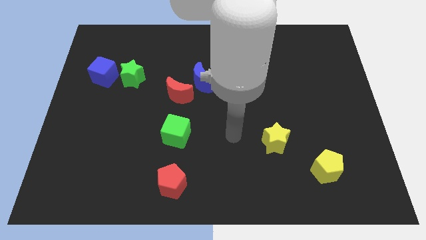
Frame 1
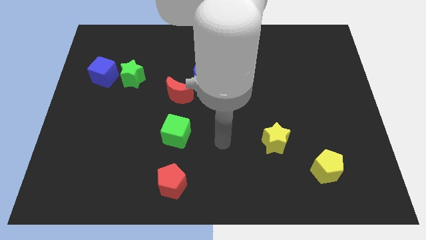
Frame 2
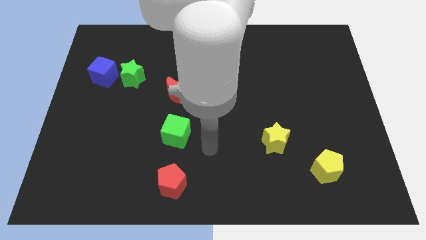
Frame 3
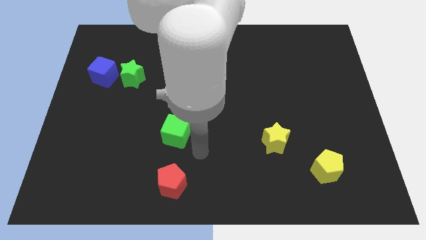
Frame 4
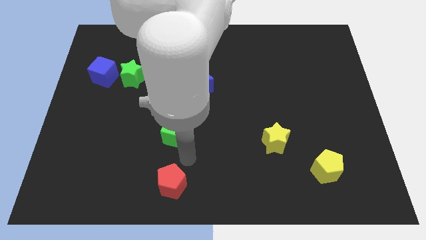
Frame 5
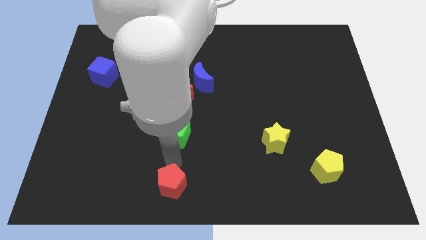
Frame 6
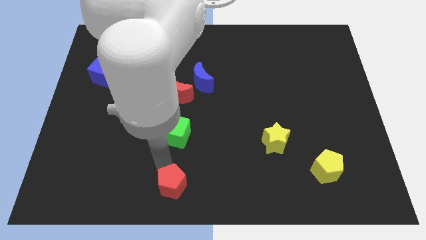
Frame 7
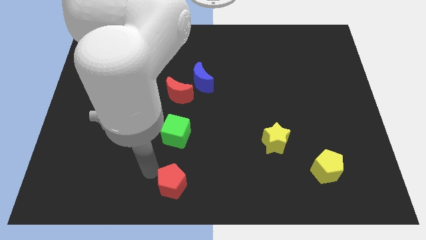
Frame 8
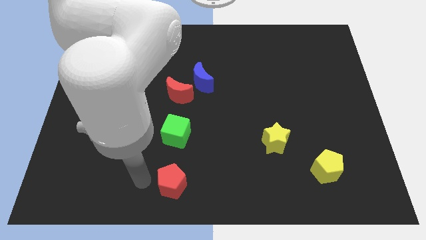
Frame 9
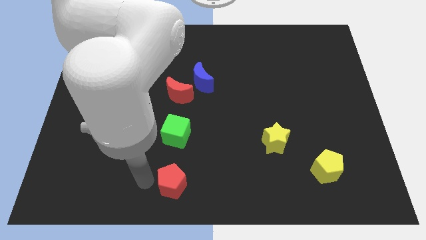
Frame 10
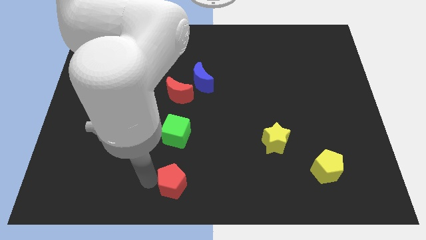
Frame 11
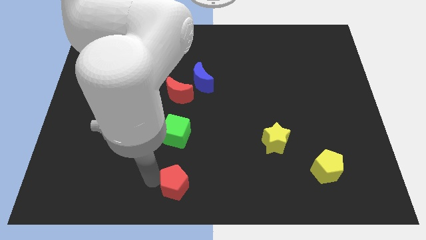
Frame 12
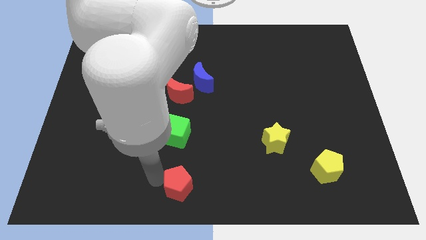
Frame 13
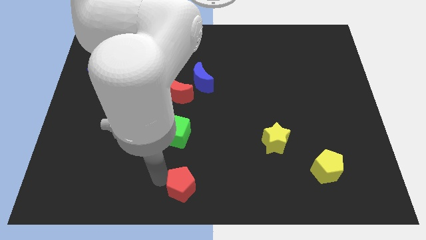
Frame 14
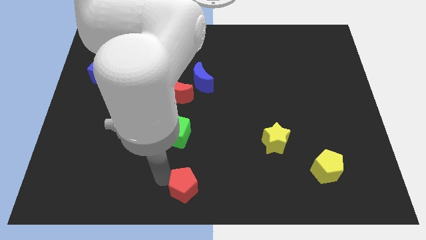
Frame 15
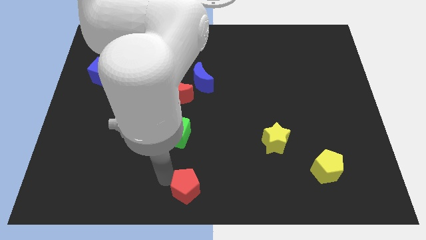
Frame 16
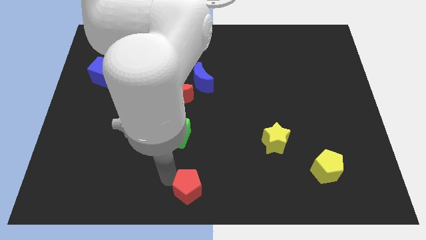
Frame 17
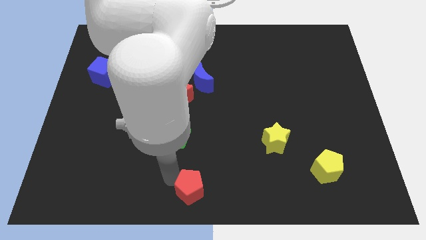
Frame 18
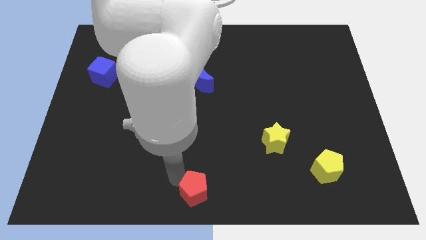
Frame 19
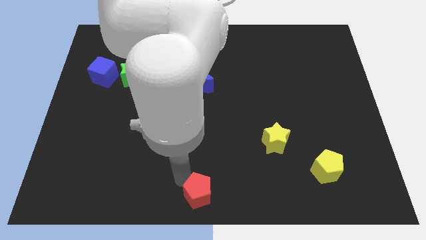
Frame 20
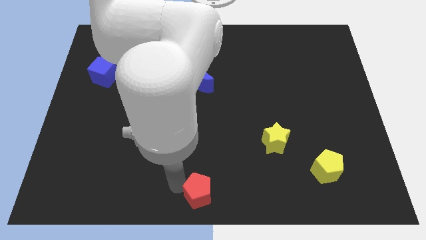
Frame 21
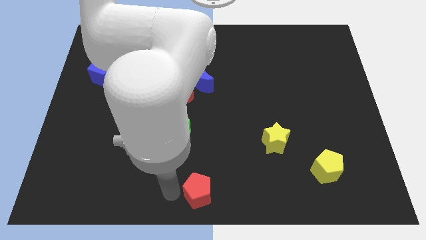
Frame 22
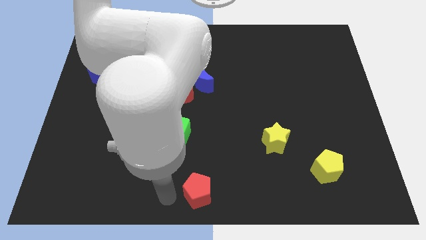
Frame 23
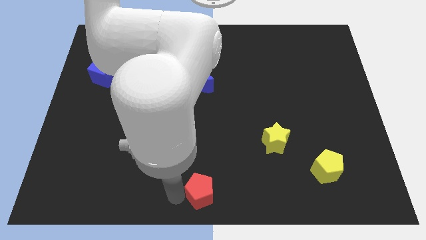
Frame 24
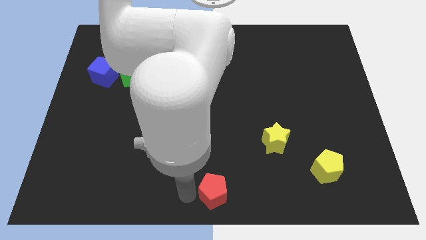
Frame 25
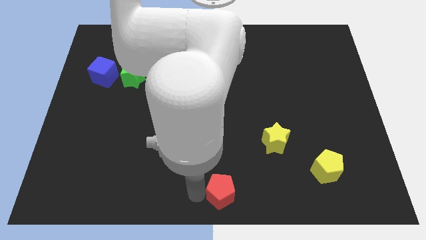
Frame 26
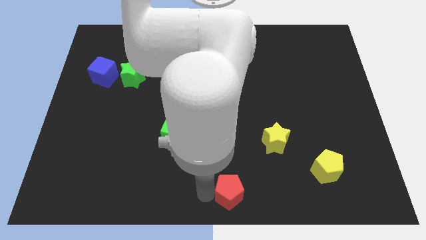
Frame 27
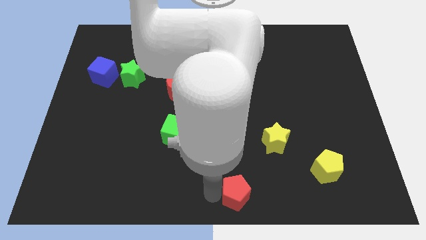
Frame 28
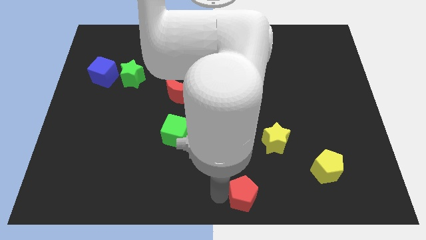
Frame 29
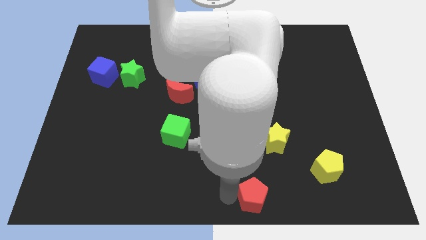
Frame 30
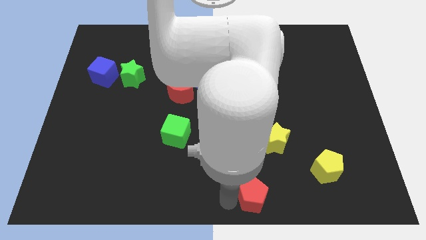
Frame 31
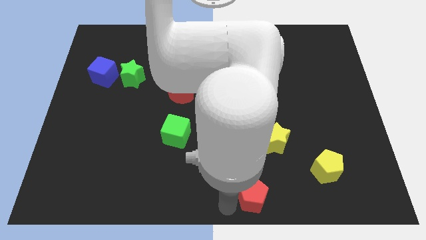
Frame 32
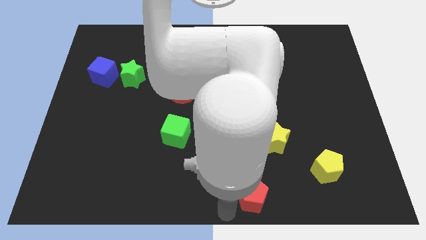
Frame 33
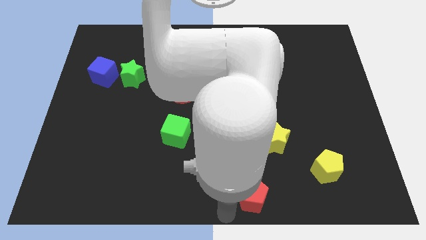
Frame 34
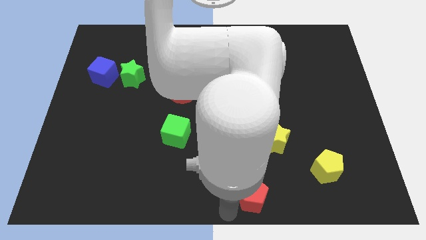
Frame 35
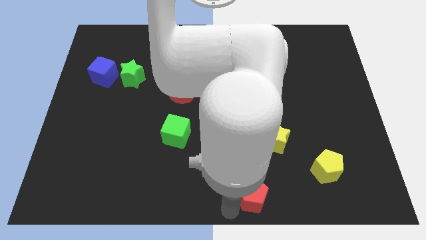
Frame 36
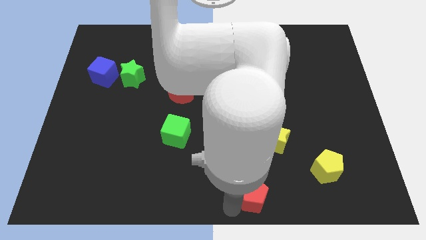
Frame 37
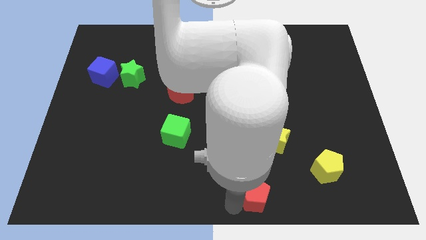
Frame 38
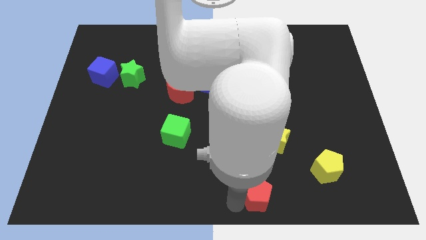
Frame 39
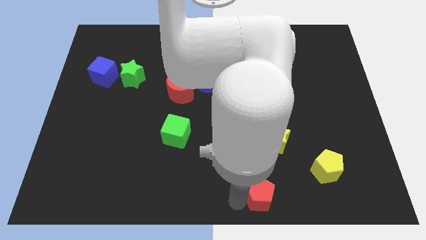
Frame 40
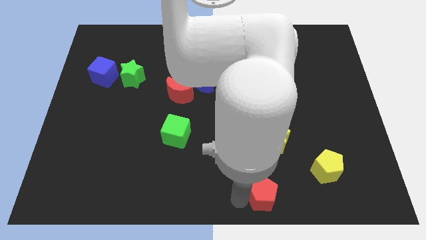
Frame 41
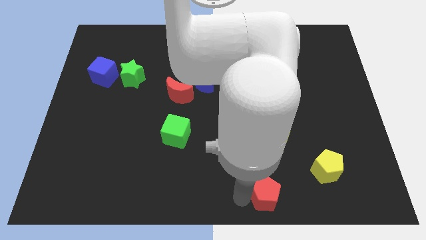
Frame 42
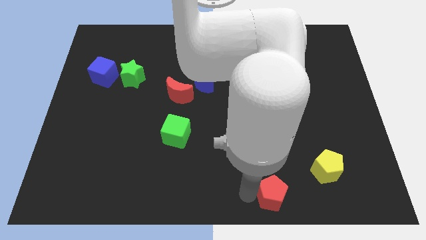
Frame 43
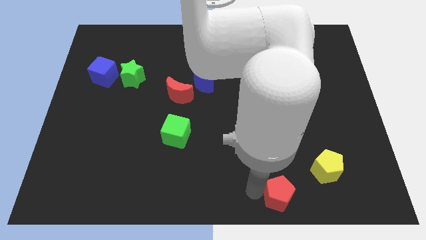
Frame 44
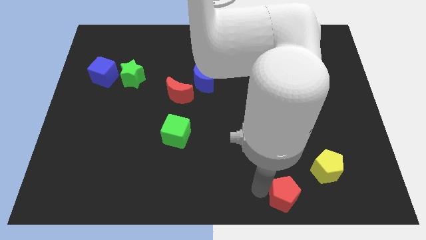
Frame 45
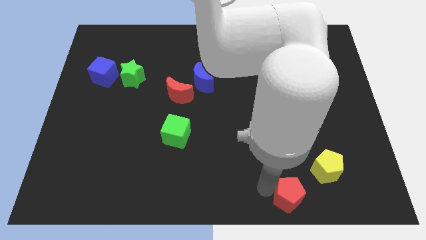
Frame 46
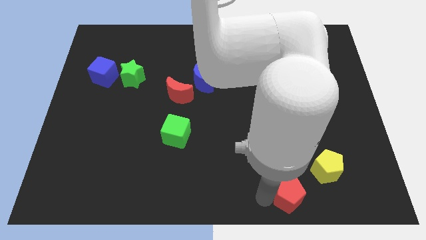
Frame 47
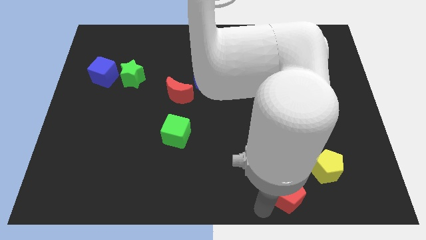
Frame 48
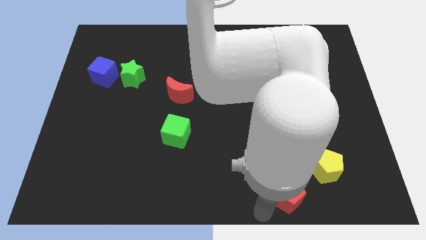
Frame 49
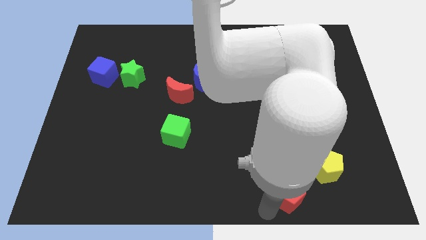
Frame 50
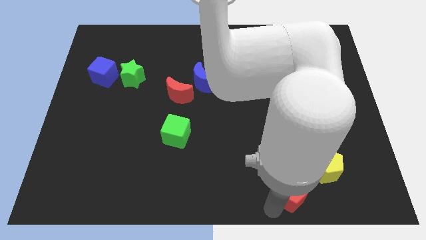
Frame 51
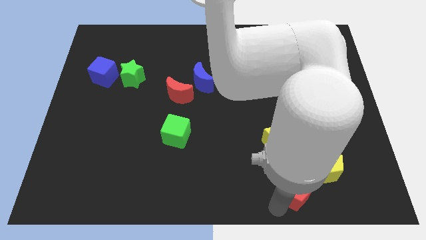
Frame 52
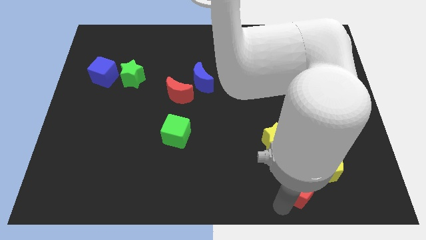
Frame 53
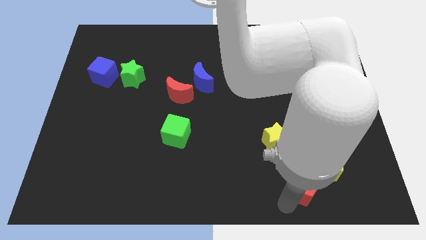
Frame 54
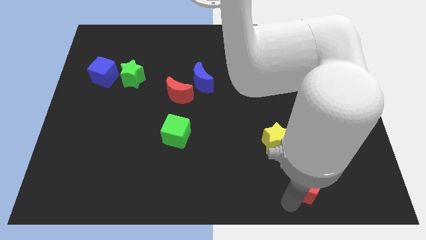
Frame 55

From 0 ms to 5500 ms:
put the red pentagon towards the yellow pentagon

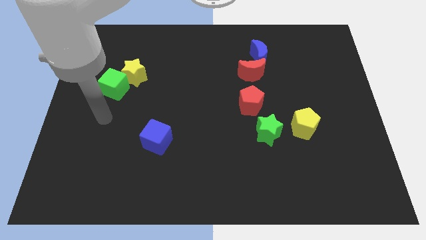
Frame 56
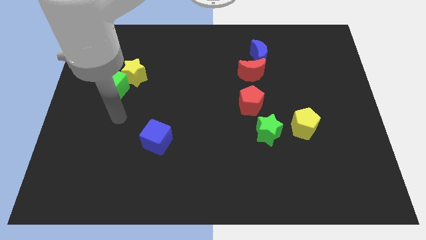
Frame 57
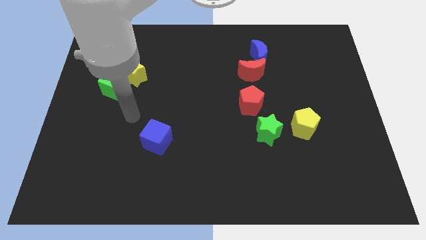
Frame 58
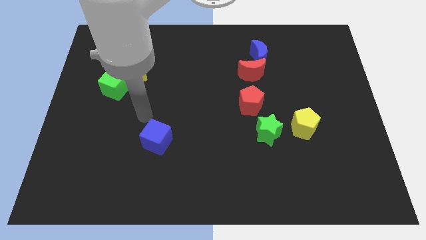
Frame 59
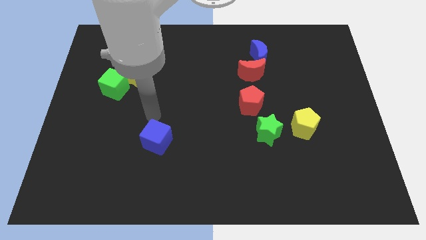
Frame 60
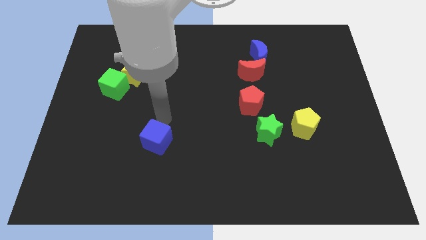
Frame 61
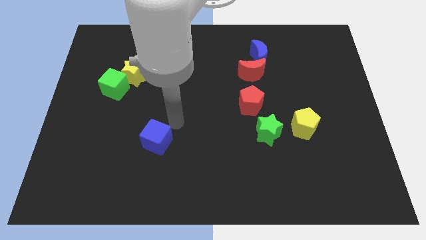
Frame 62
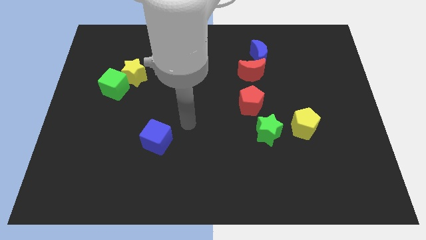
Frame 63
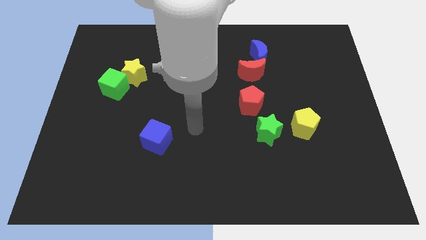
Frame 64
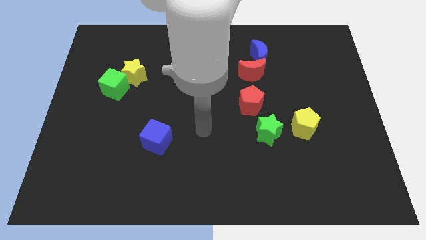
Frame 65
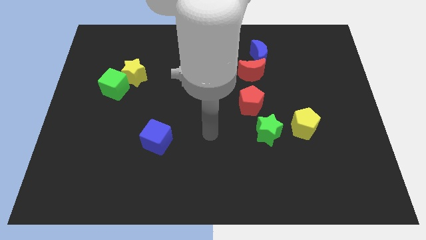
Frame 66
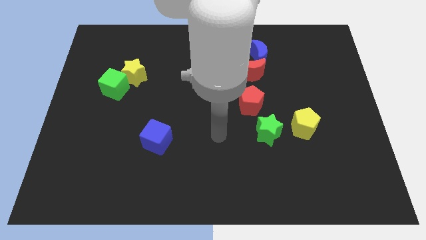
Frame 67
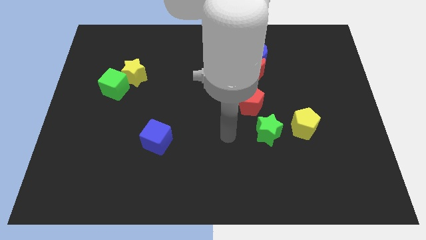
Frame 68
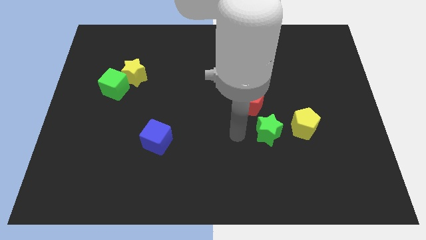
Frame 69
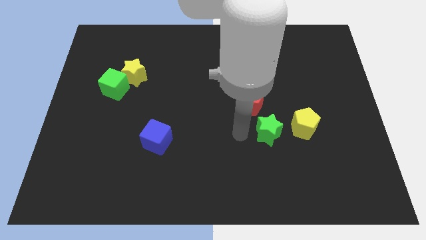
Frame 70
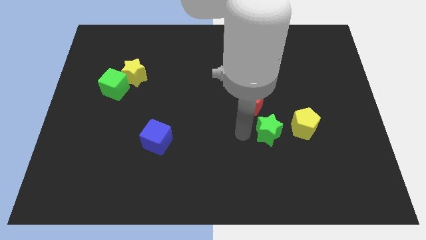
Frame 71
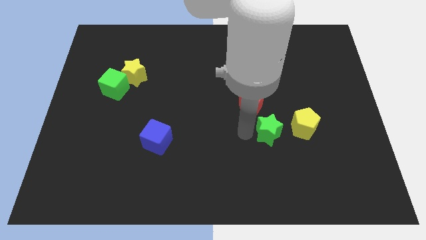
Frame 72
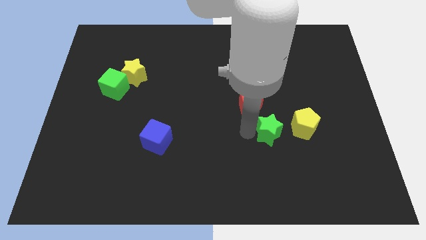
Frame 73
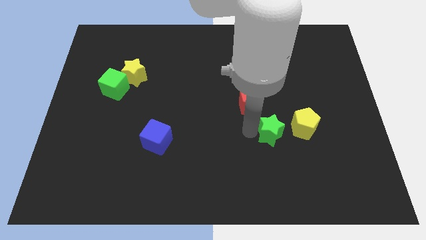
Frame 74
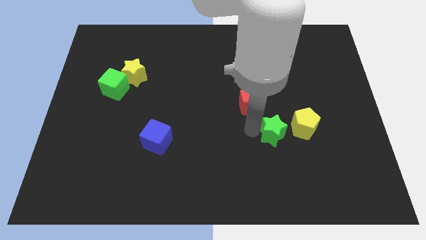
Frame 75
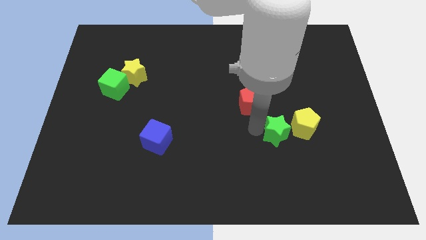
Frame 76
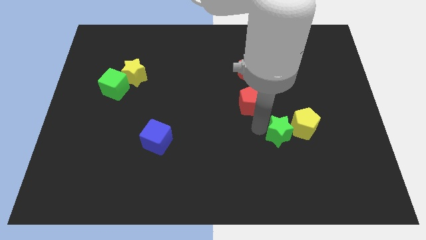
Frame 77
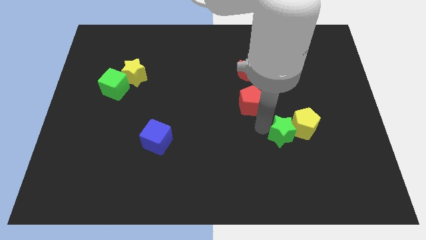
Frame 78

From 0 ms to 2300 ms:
put the green star close to the yellow pentagon
